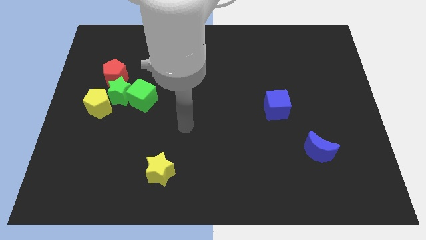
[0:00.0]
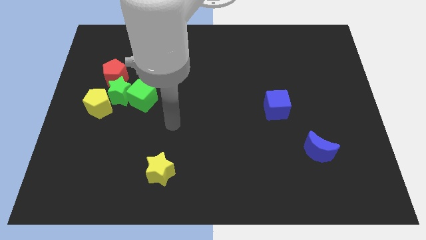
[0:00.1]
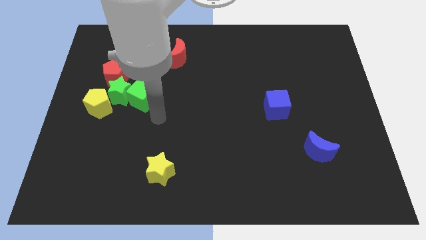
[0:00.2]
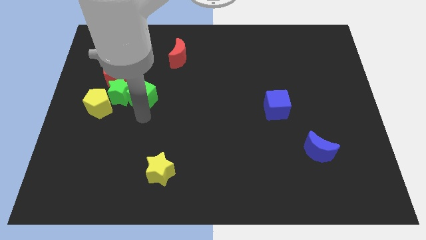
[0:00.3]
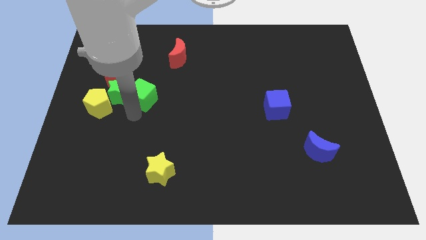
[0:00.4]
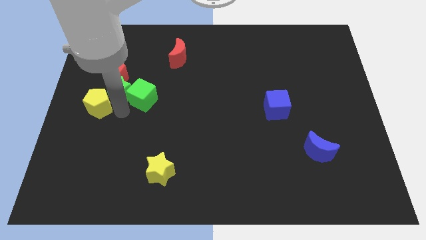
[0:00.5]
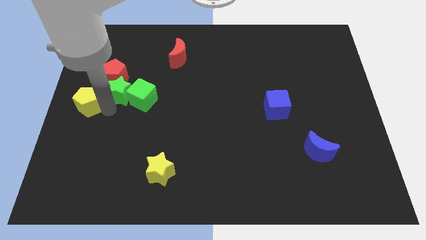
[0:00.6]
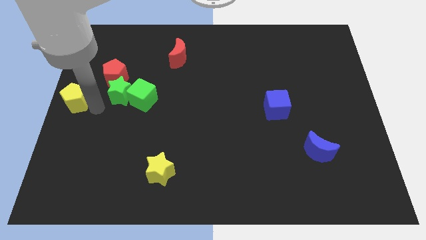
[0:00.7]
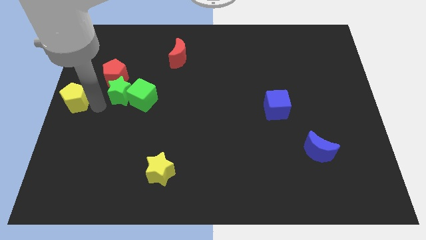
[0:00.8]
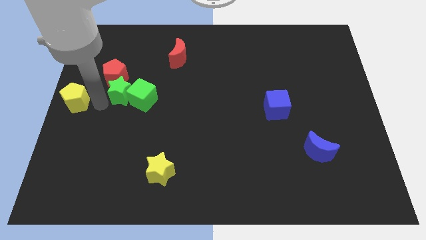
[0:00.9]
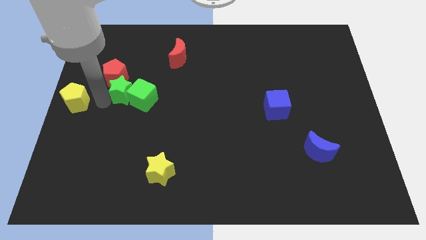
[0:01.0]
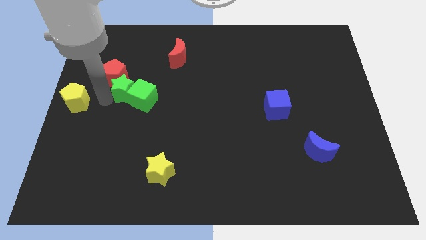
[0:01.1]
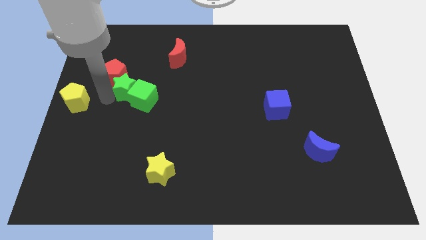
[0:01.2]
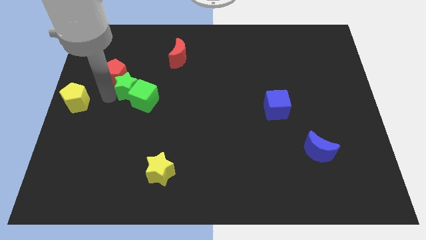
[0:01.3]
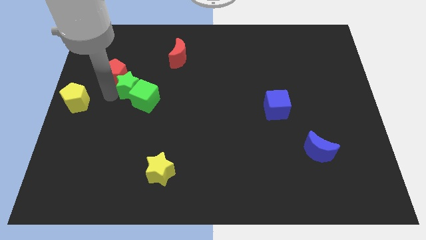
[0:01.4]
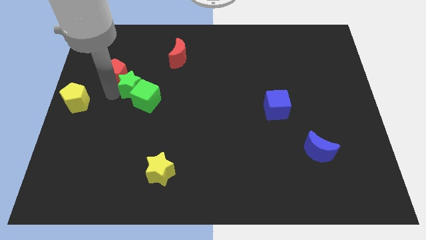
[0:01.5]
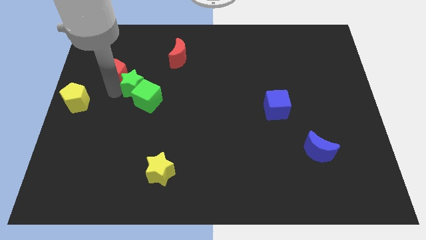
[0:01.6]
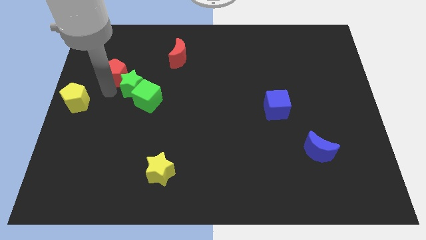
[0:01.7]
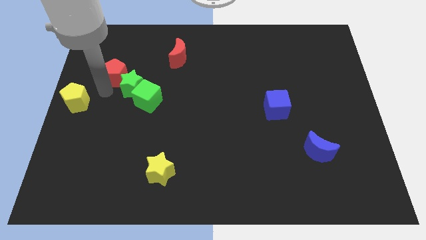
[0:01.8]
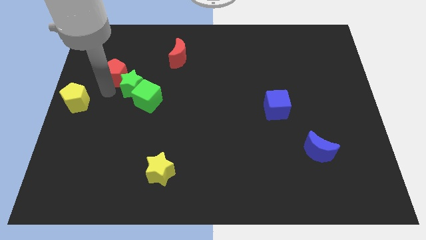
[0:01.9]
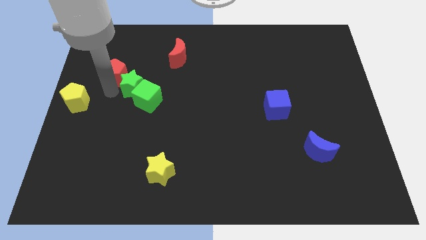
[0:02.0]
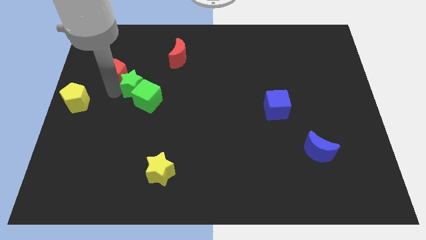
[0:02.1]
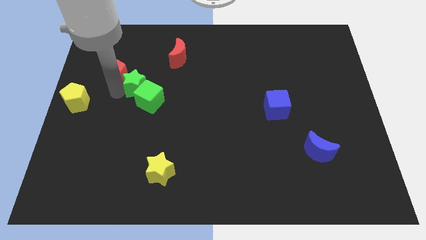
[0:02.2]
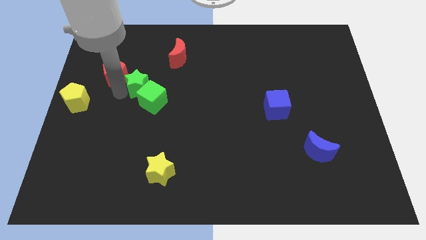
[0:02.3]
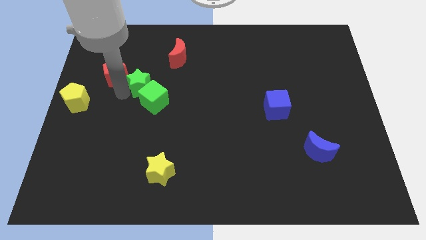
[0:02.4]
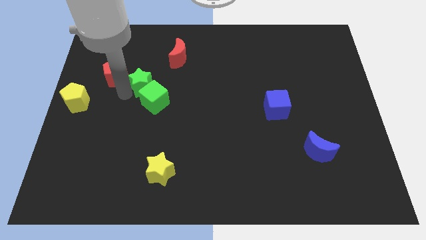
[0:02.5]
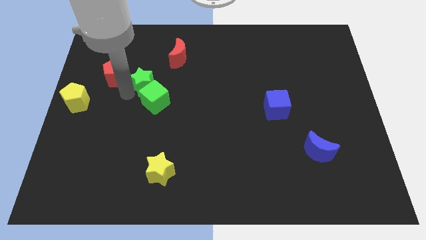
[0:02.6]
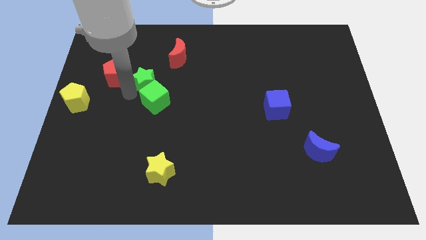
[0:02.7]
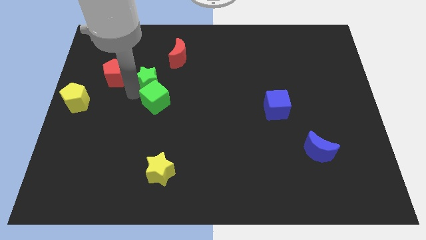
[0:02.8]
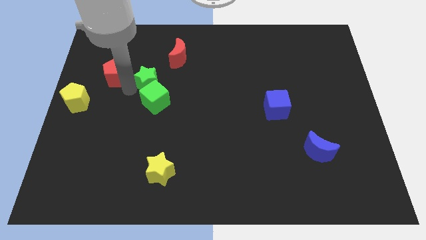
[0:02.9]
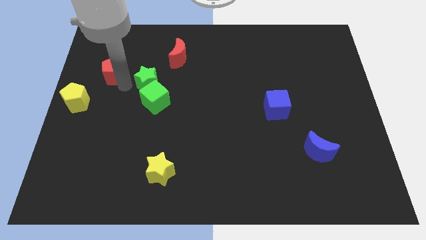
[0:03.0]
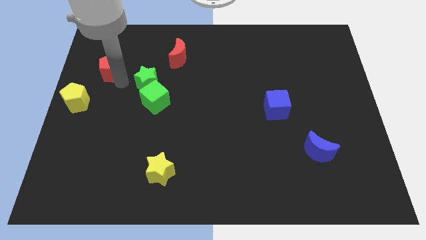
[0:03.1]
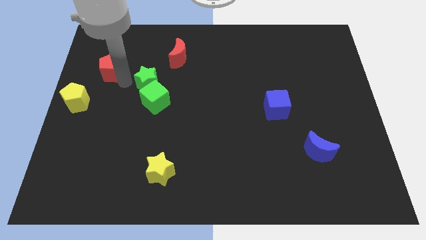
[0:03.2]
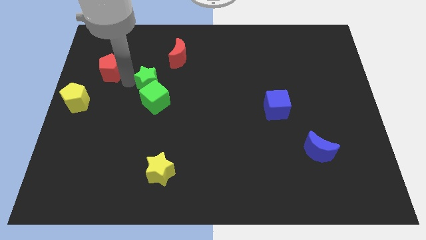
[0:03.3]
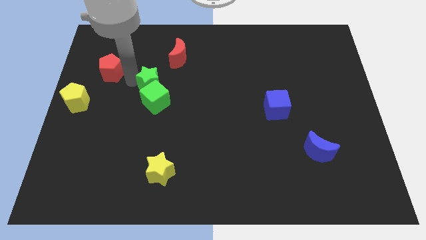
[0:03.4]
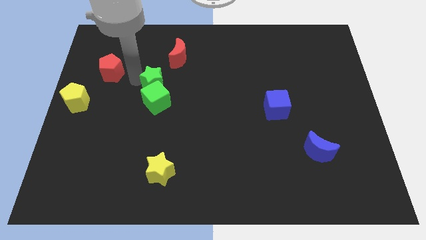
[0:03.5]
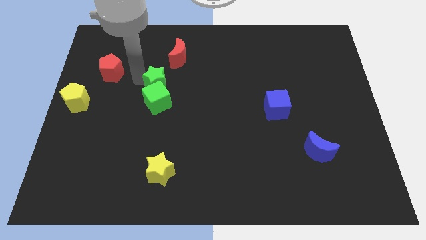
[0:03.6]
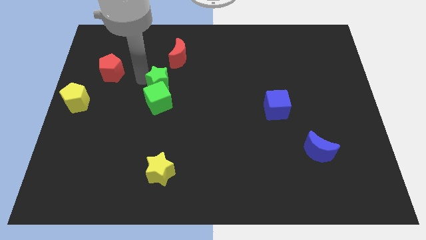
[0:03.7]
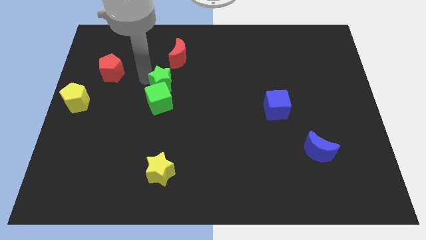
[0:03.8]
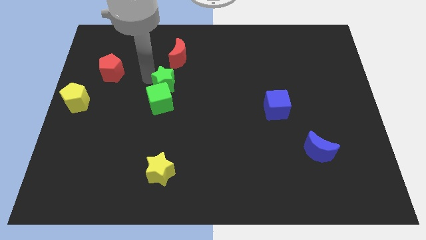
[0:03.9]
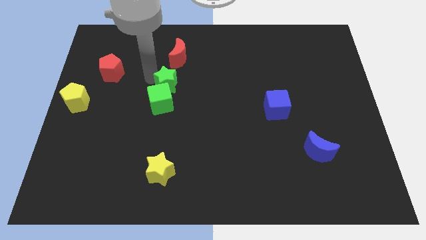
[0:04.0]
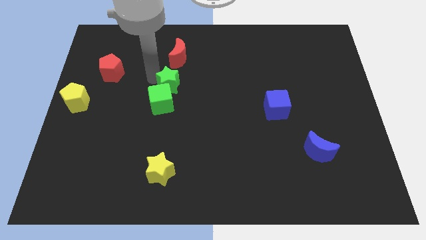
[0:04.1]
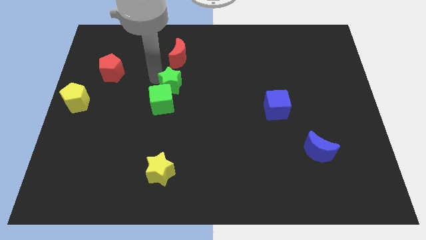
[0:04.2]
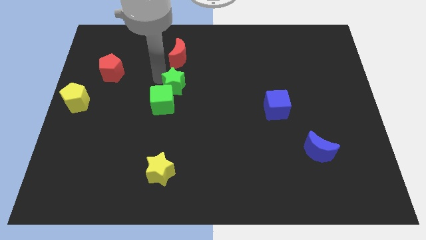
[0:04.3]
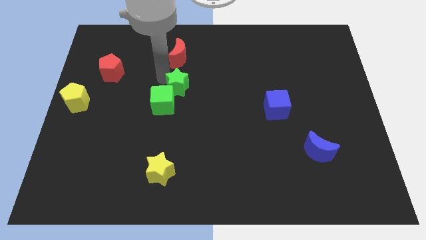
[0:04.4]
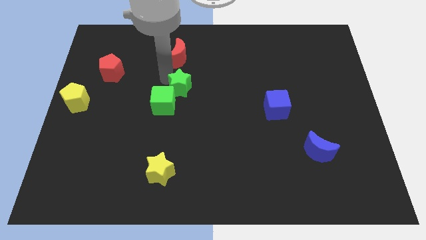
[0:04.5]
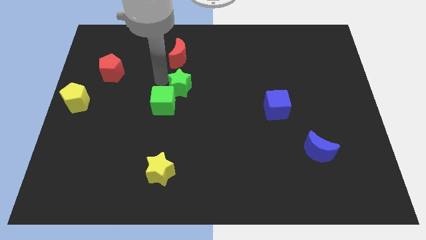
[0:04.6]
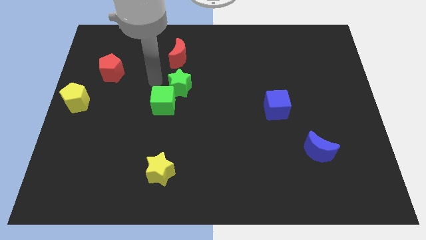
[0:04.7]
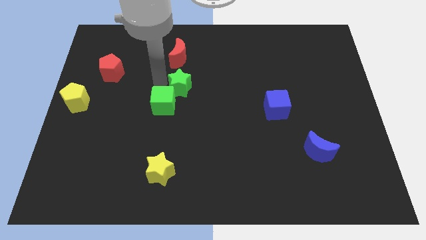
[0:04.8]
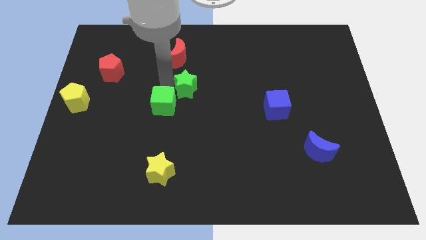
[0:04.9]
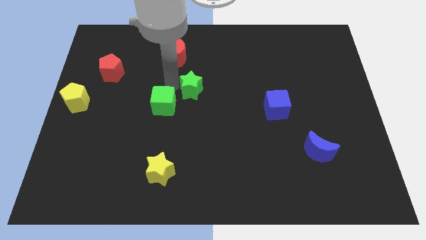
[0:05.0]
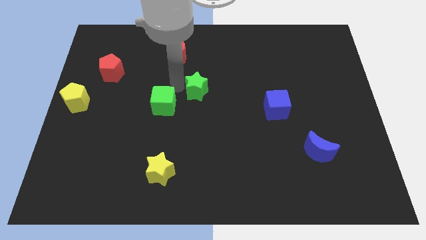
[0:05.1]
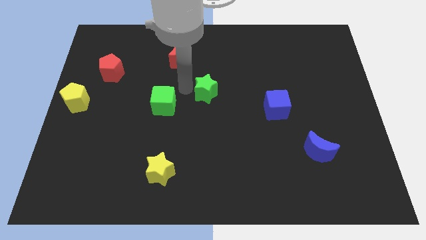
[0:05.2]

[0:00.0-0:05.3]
slide the green star right

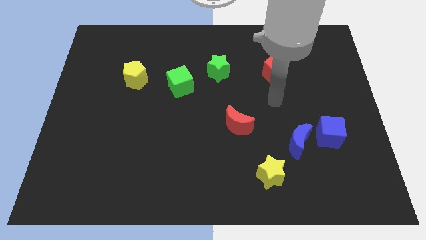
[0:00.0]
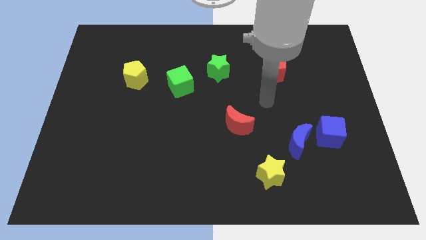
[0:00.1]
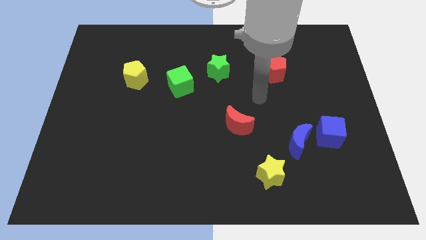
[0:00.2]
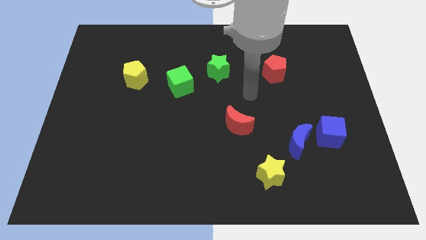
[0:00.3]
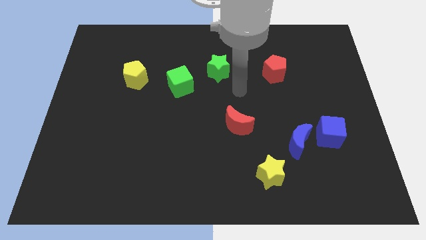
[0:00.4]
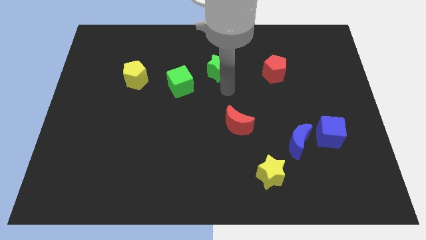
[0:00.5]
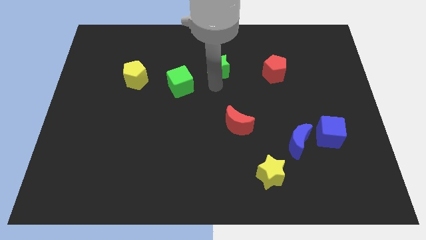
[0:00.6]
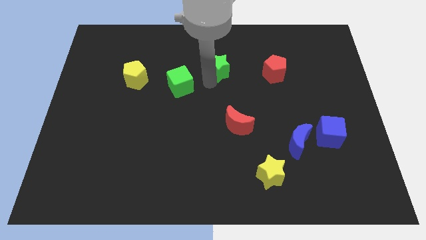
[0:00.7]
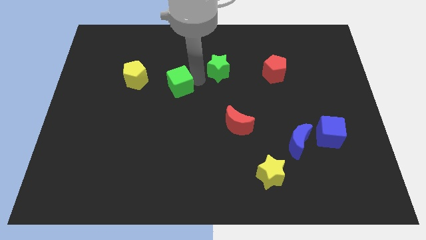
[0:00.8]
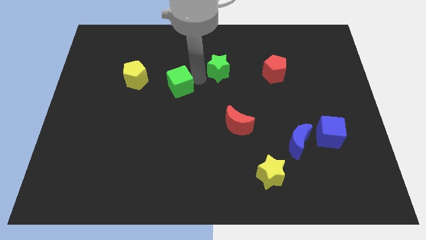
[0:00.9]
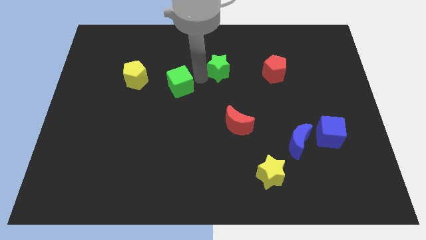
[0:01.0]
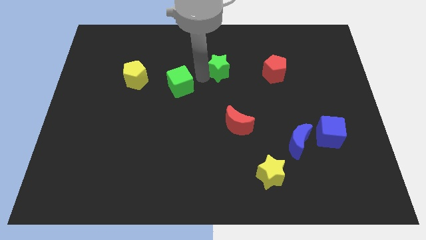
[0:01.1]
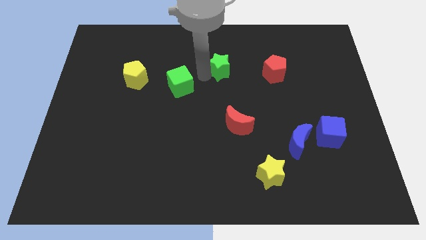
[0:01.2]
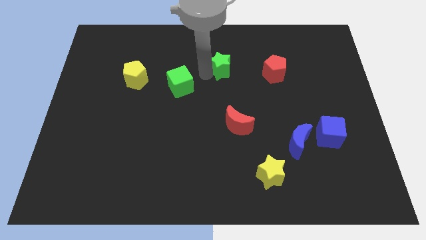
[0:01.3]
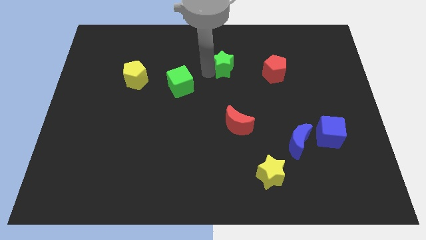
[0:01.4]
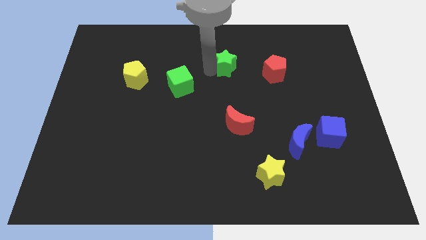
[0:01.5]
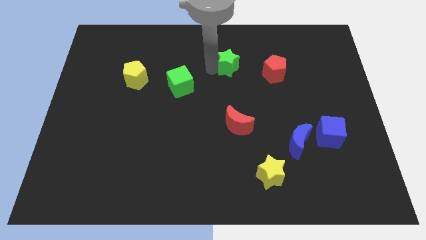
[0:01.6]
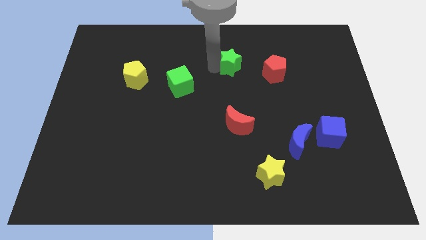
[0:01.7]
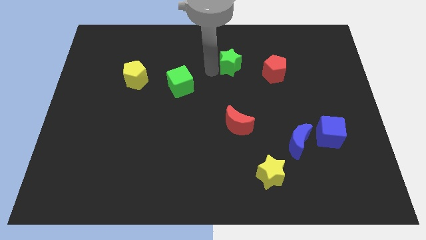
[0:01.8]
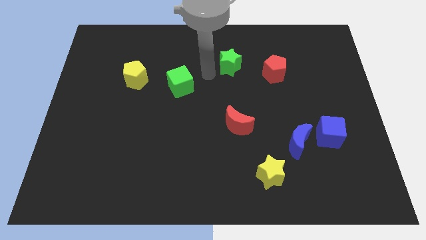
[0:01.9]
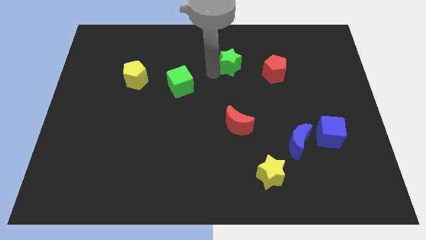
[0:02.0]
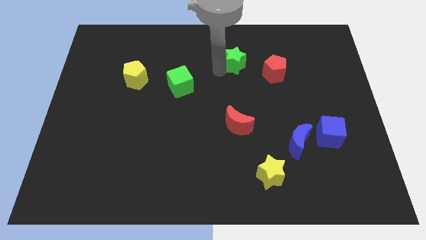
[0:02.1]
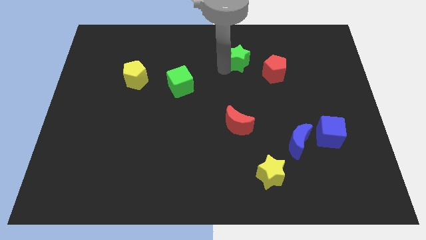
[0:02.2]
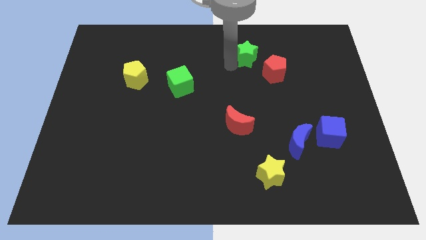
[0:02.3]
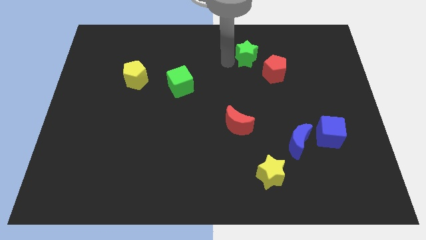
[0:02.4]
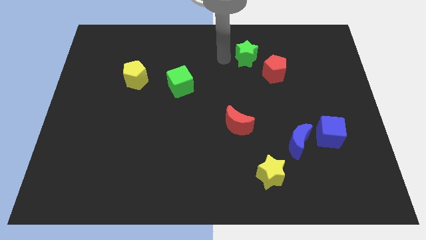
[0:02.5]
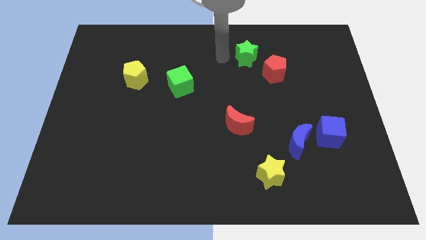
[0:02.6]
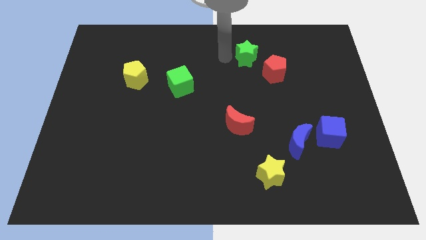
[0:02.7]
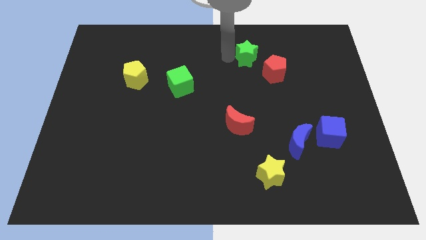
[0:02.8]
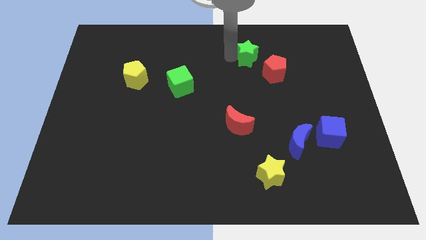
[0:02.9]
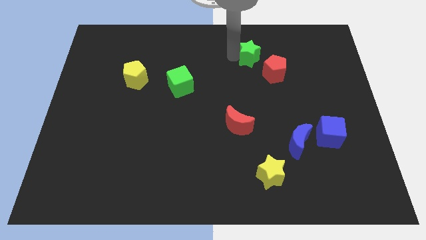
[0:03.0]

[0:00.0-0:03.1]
push the green star slightly to the right
